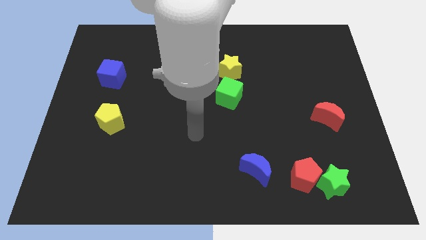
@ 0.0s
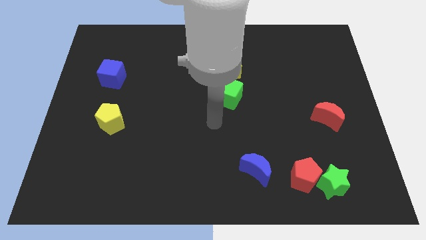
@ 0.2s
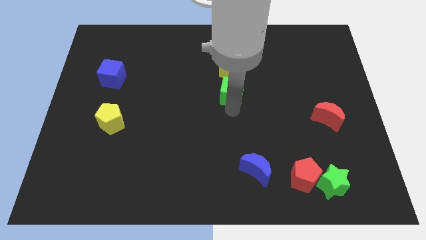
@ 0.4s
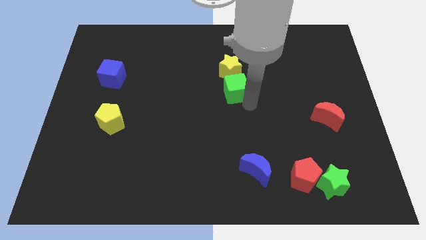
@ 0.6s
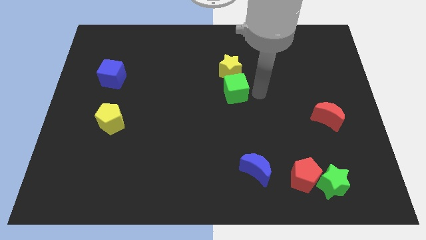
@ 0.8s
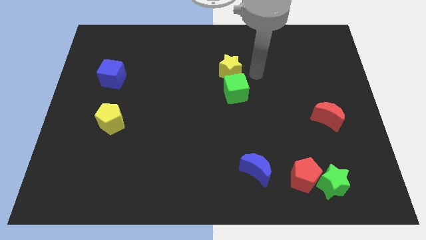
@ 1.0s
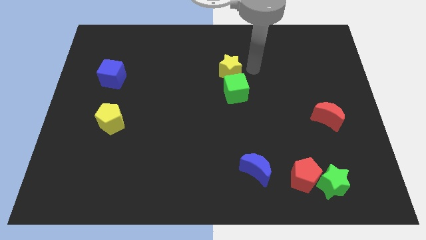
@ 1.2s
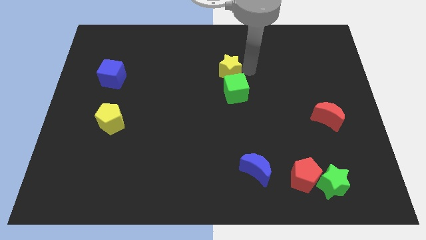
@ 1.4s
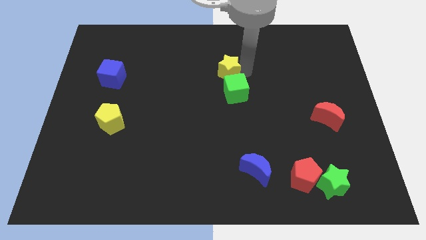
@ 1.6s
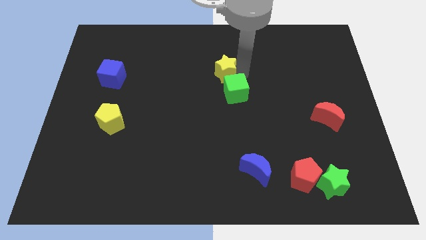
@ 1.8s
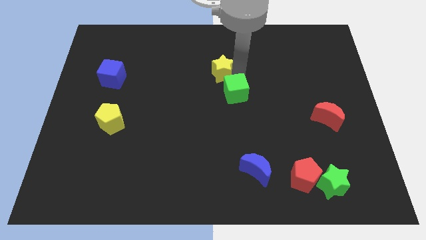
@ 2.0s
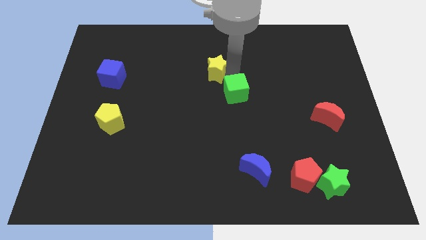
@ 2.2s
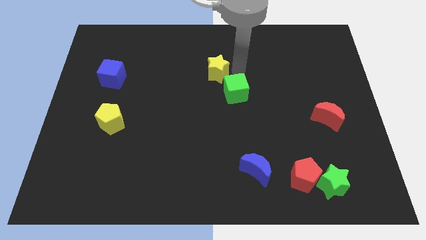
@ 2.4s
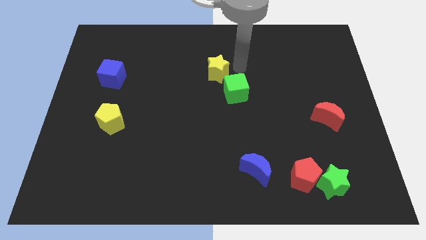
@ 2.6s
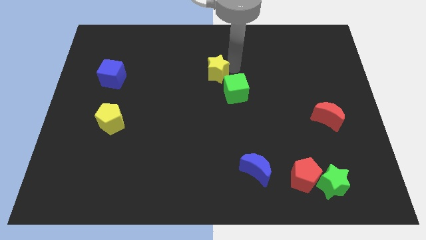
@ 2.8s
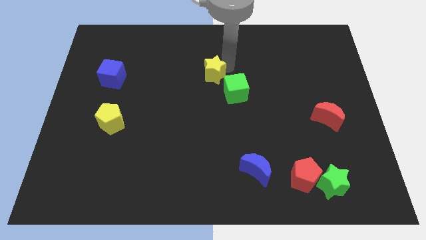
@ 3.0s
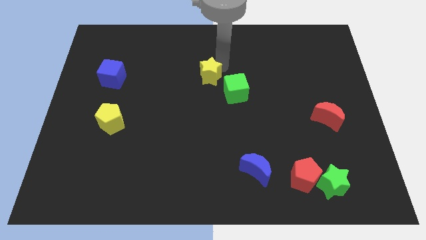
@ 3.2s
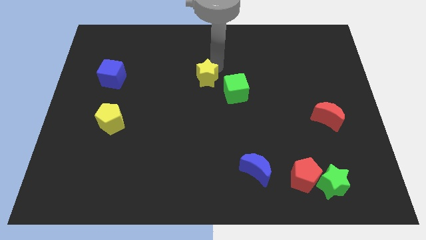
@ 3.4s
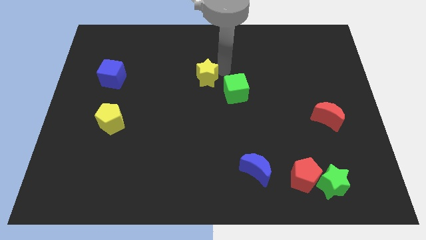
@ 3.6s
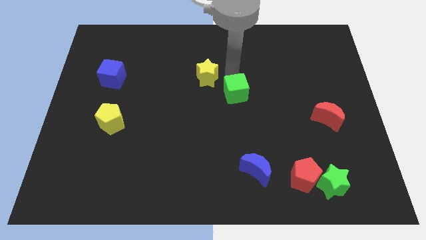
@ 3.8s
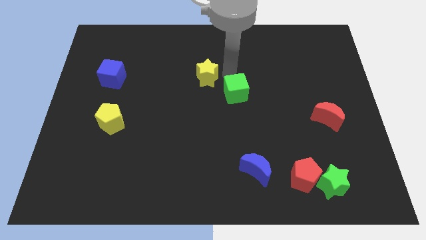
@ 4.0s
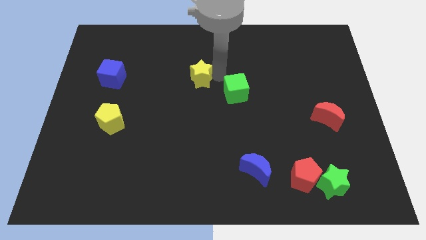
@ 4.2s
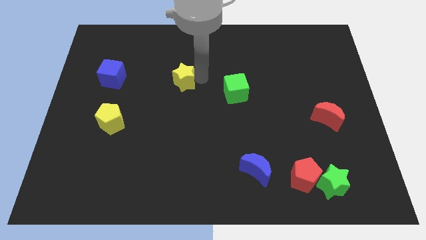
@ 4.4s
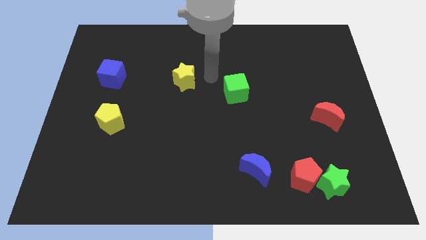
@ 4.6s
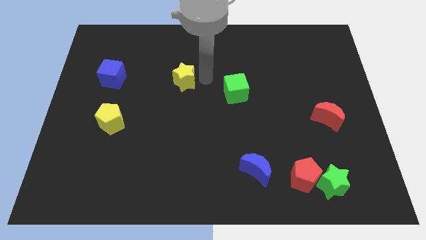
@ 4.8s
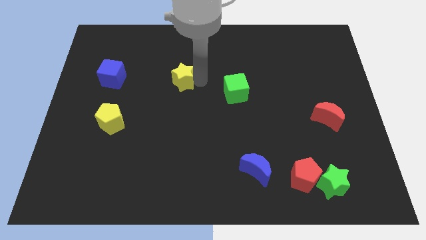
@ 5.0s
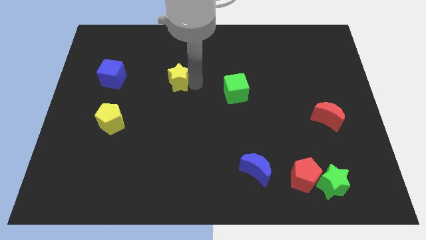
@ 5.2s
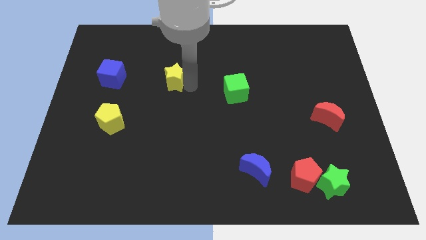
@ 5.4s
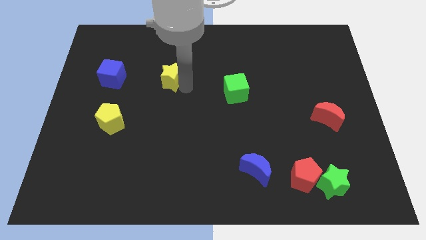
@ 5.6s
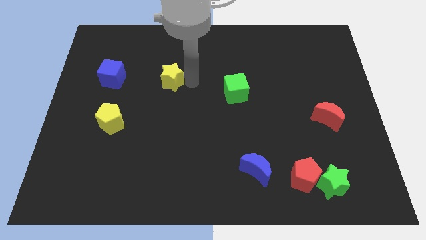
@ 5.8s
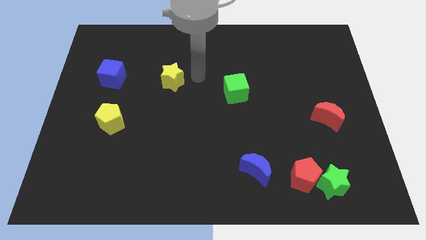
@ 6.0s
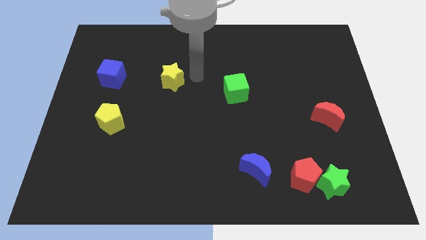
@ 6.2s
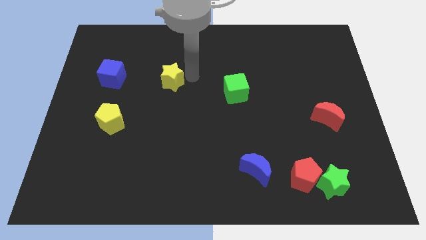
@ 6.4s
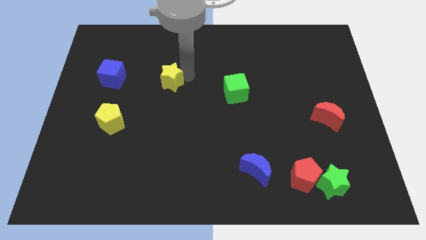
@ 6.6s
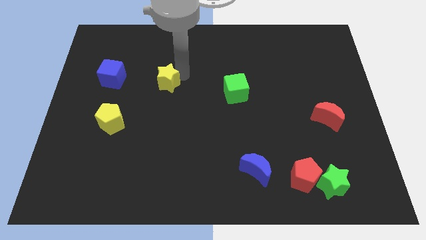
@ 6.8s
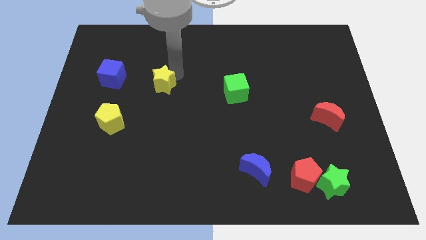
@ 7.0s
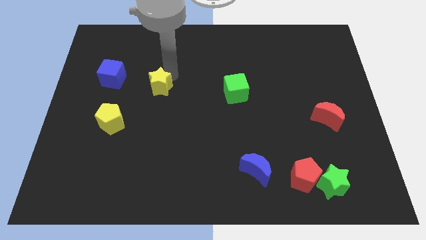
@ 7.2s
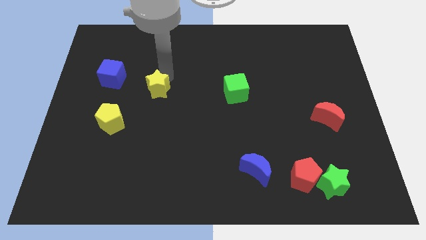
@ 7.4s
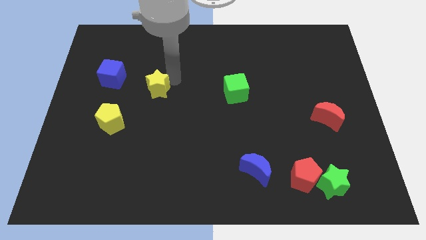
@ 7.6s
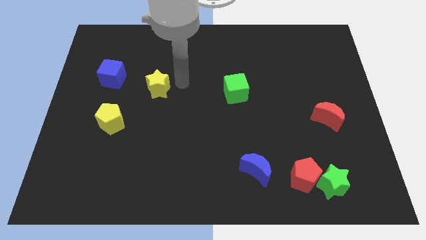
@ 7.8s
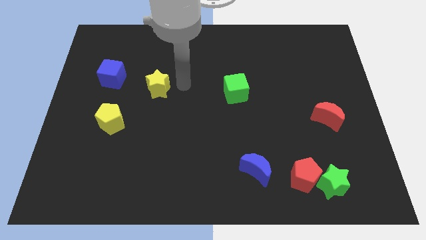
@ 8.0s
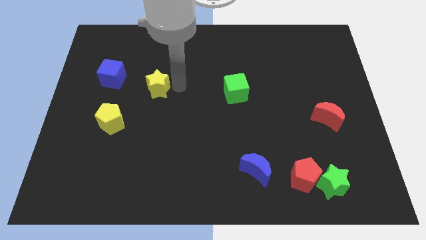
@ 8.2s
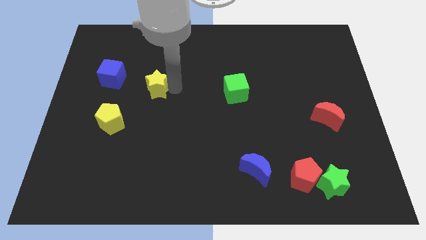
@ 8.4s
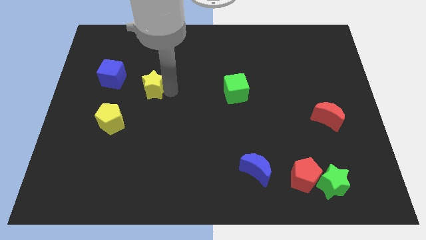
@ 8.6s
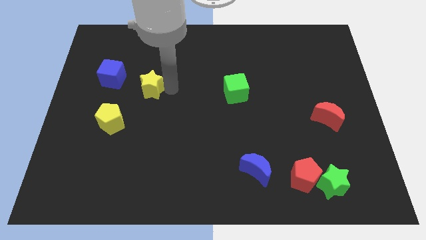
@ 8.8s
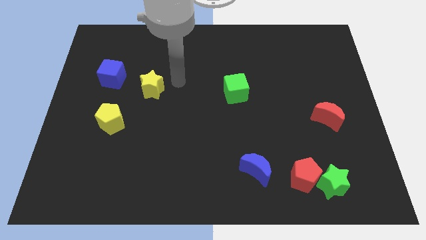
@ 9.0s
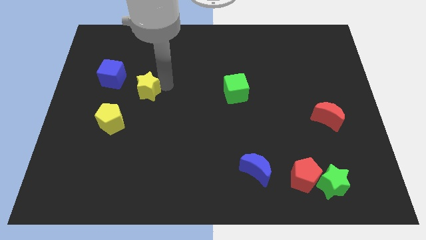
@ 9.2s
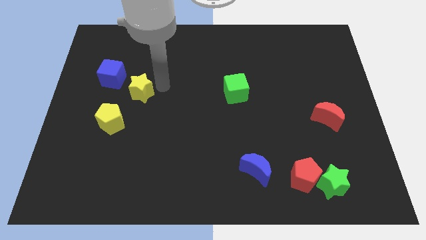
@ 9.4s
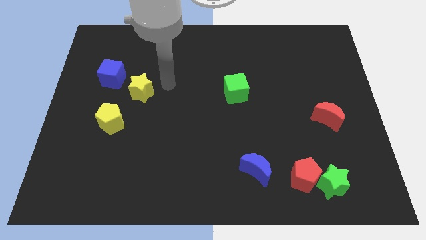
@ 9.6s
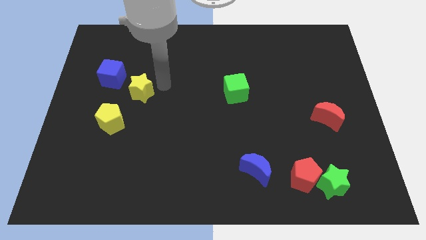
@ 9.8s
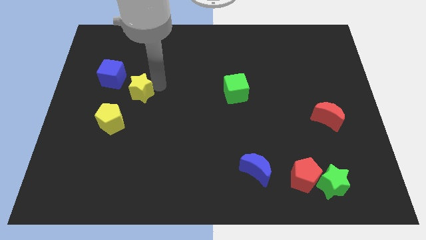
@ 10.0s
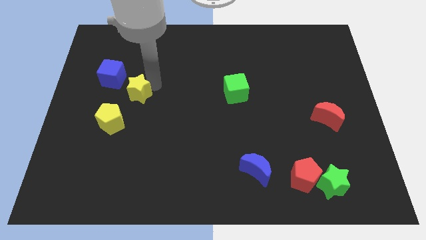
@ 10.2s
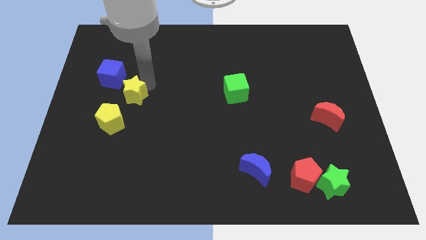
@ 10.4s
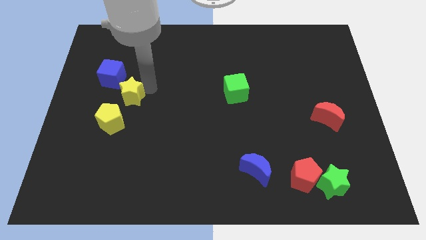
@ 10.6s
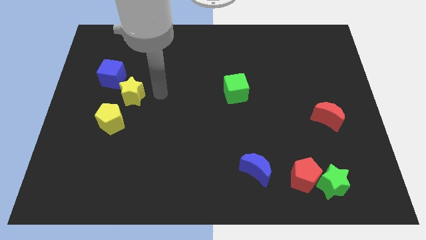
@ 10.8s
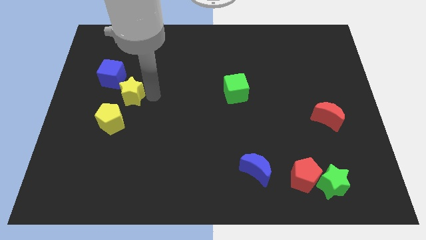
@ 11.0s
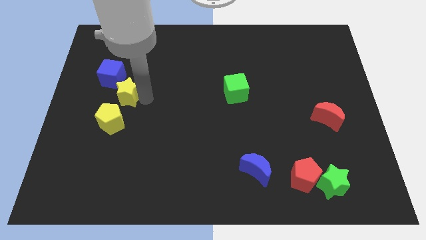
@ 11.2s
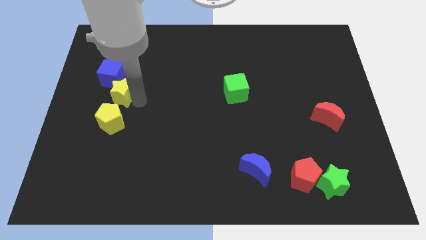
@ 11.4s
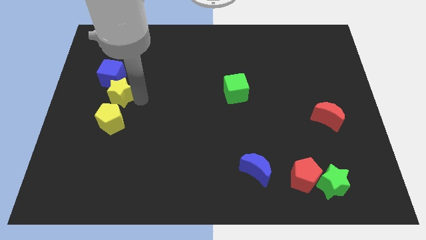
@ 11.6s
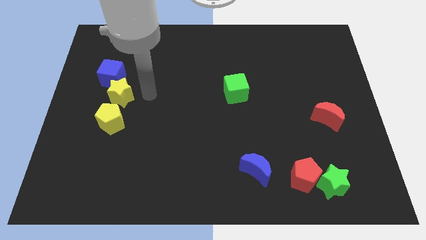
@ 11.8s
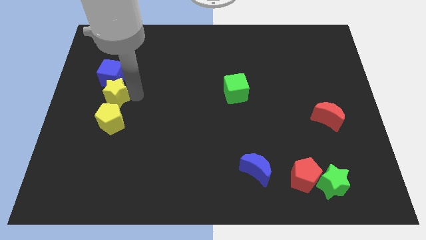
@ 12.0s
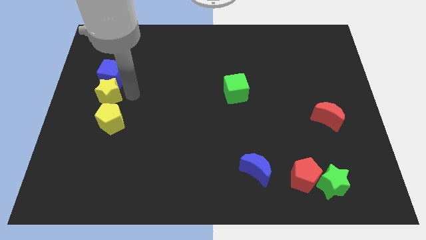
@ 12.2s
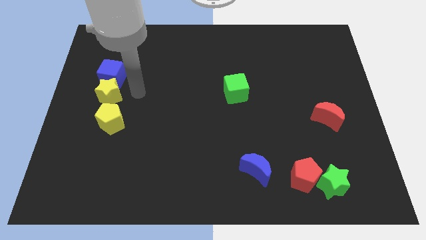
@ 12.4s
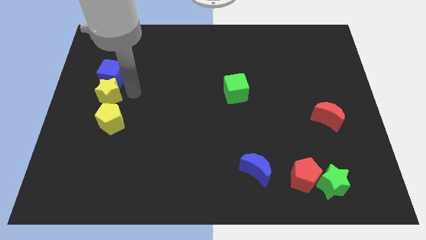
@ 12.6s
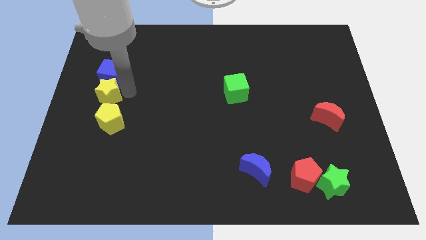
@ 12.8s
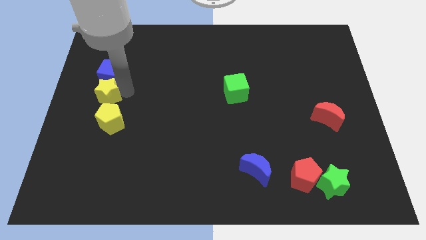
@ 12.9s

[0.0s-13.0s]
push the yellow star to the left side of the board

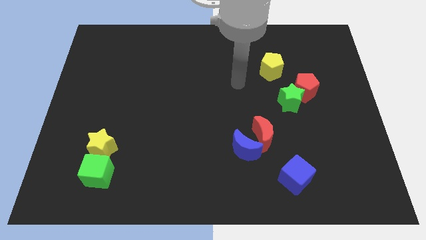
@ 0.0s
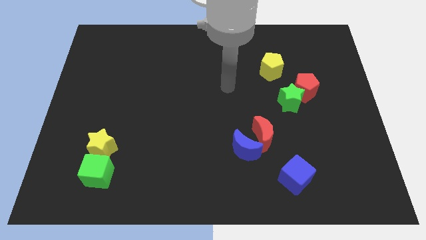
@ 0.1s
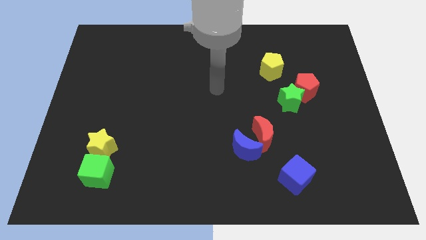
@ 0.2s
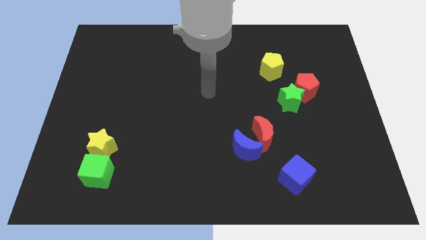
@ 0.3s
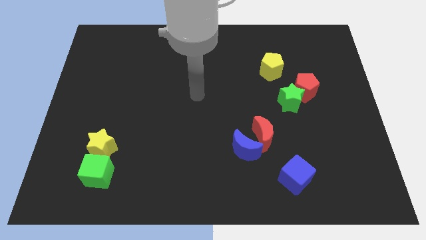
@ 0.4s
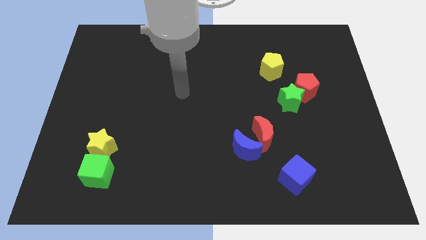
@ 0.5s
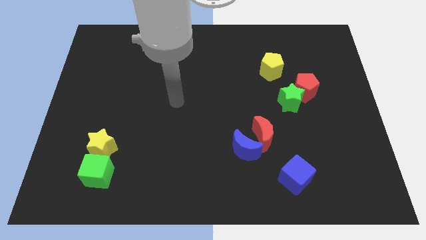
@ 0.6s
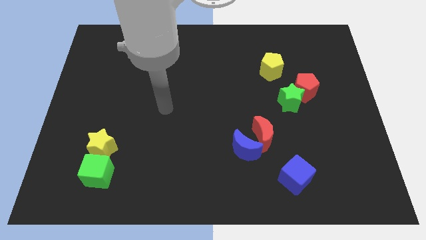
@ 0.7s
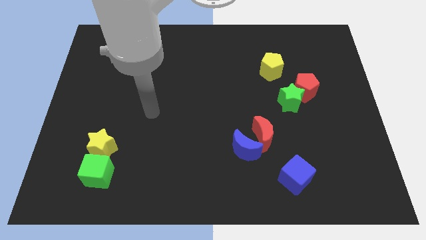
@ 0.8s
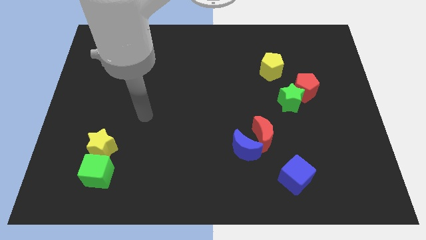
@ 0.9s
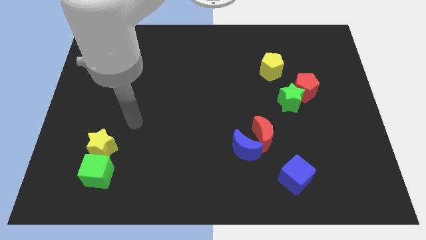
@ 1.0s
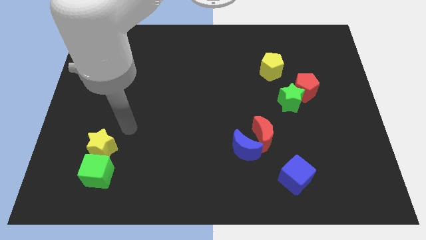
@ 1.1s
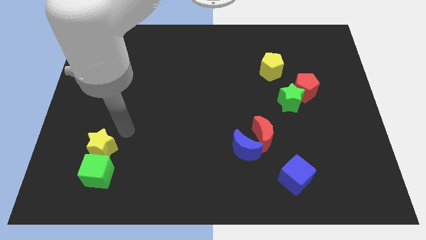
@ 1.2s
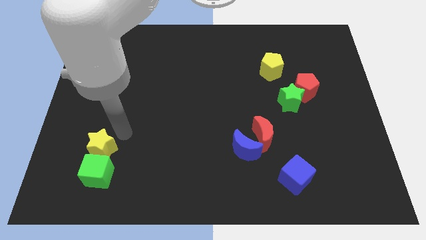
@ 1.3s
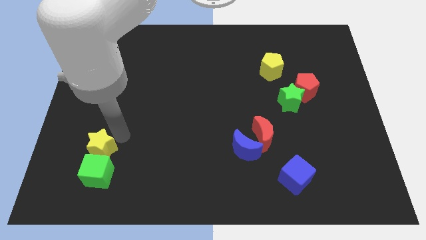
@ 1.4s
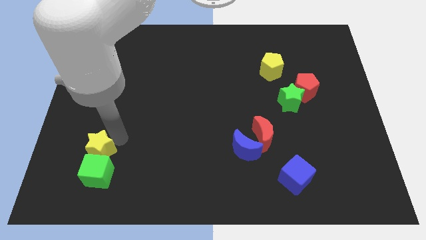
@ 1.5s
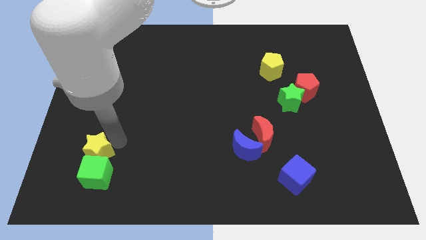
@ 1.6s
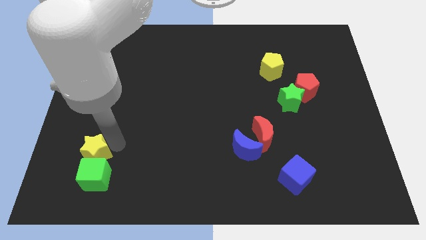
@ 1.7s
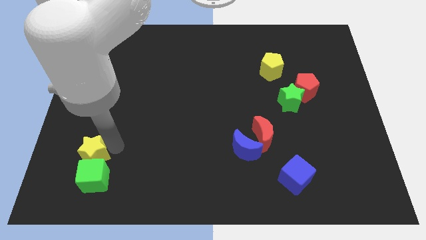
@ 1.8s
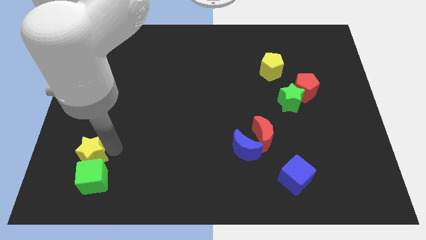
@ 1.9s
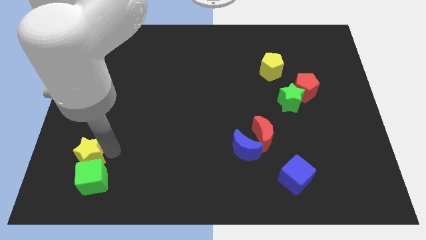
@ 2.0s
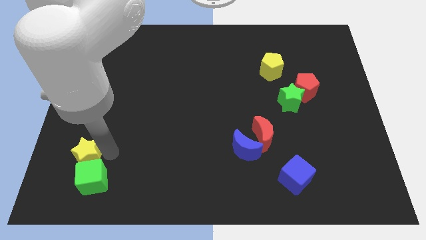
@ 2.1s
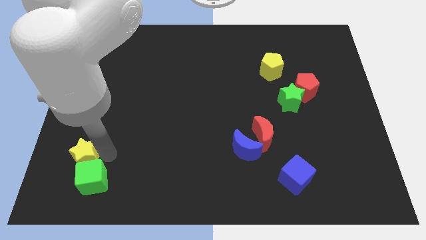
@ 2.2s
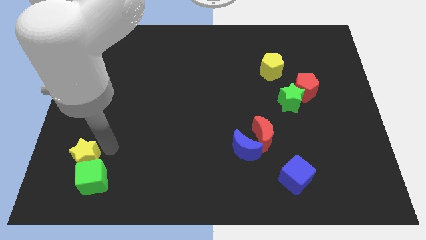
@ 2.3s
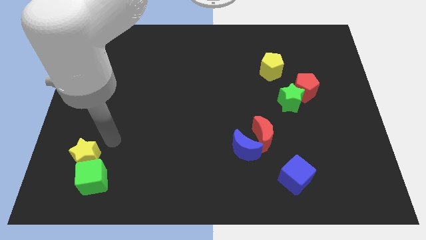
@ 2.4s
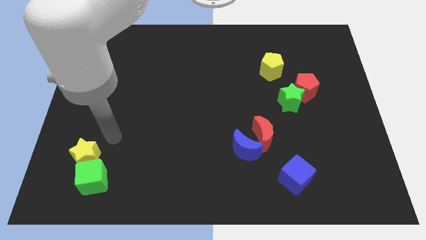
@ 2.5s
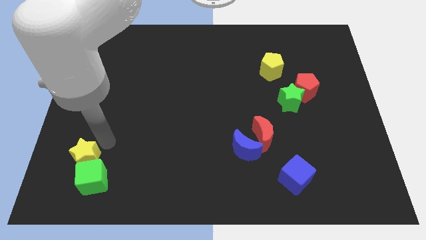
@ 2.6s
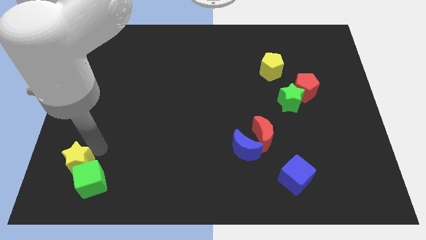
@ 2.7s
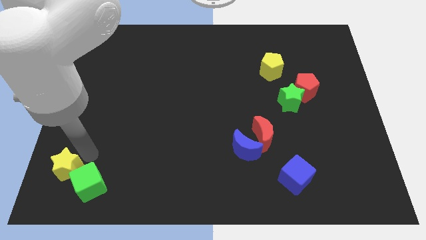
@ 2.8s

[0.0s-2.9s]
move the yellow star to the bottom left of the board
